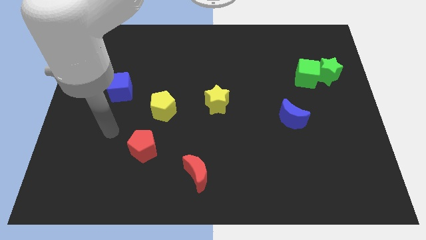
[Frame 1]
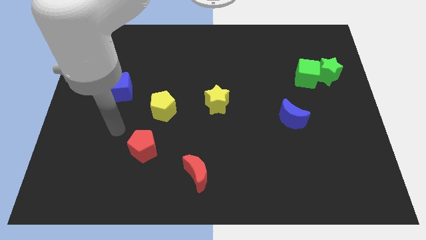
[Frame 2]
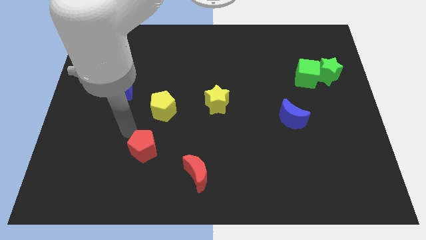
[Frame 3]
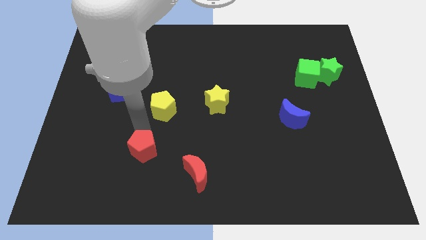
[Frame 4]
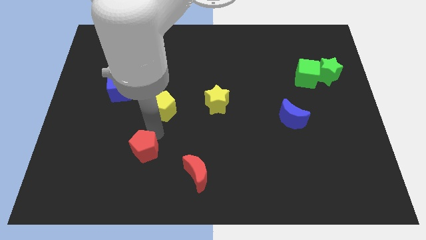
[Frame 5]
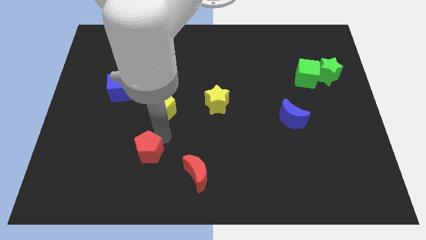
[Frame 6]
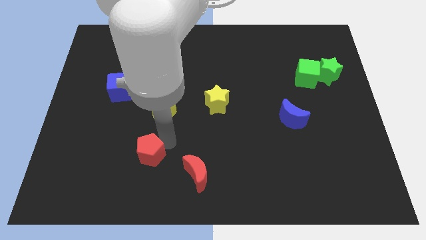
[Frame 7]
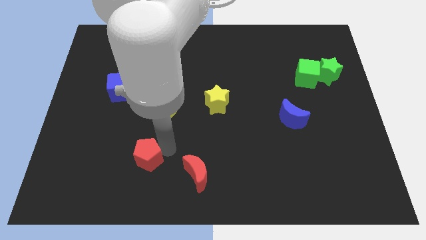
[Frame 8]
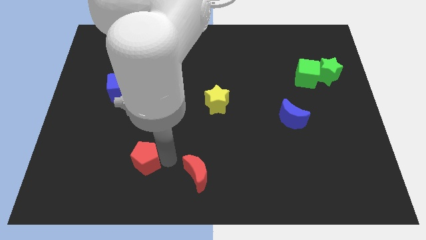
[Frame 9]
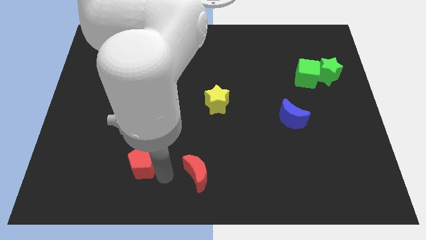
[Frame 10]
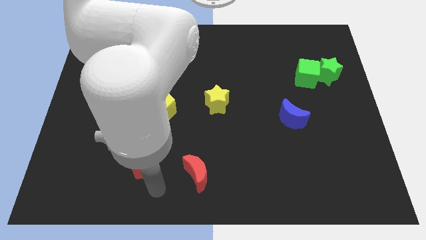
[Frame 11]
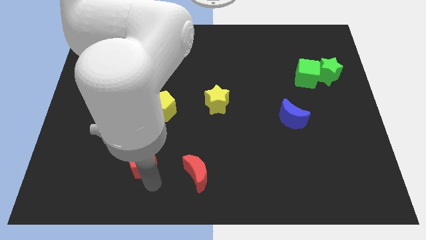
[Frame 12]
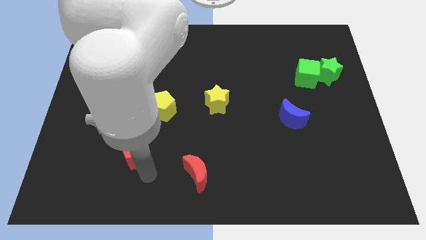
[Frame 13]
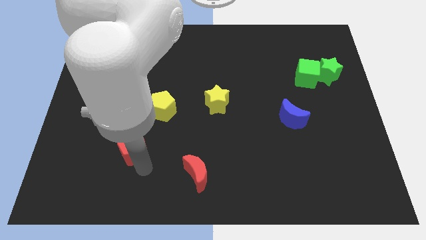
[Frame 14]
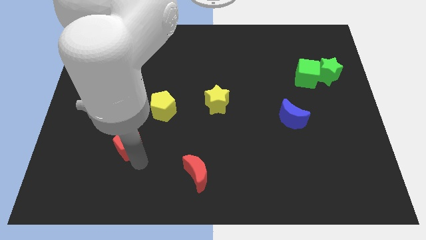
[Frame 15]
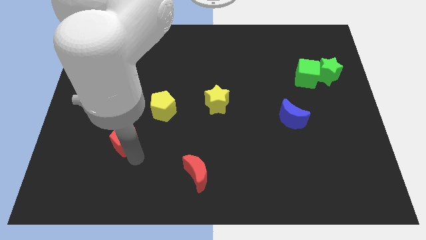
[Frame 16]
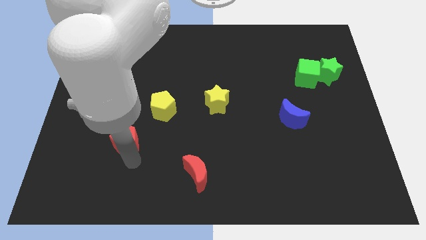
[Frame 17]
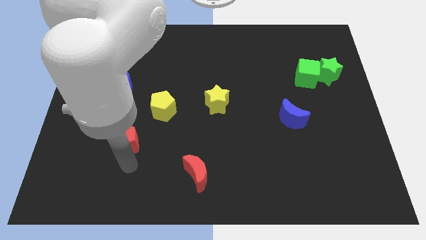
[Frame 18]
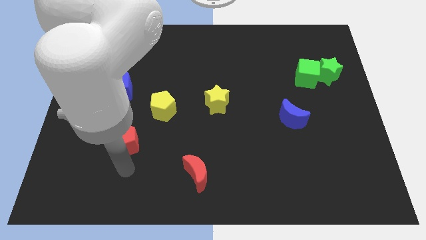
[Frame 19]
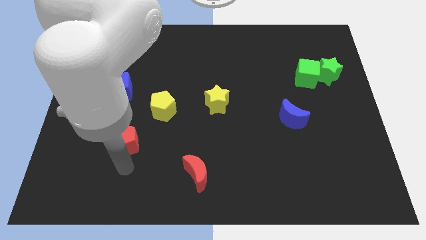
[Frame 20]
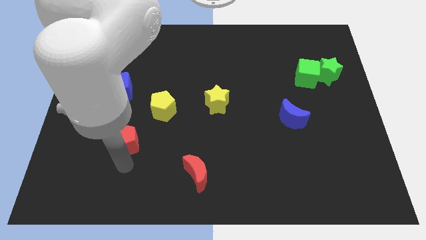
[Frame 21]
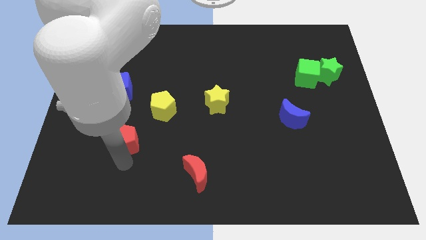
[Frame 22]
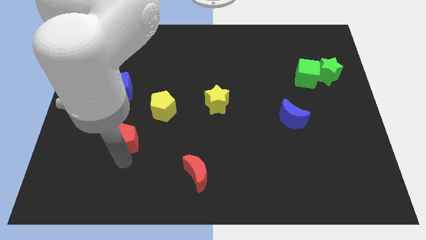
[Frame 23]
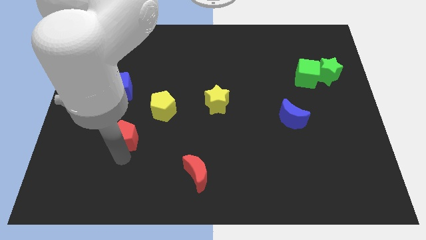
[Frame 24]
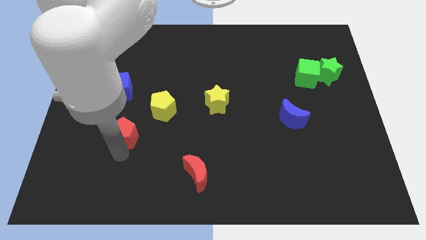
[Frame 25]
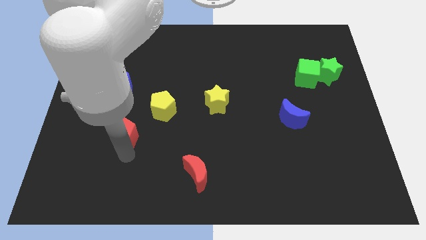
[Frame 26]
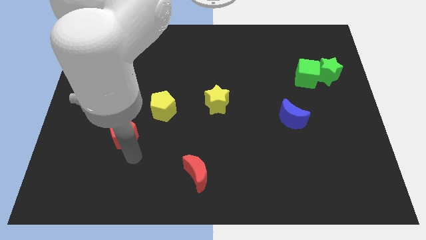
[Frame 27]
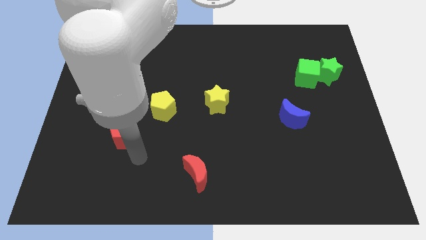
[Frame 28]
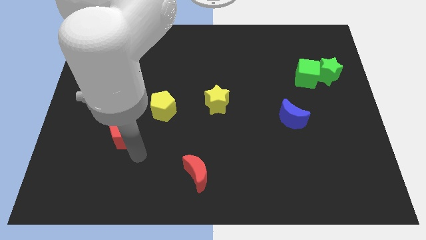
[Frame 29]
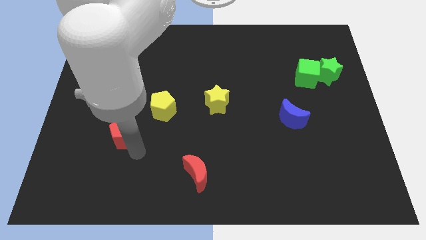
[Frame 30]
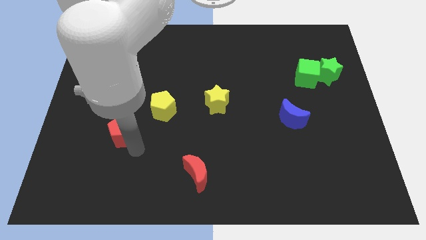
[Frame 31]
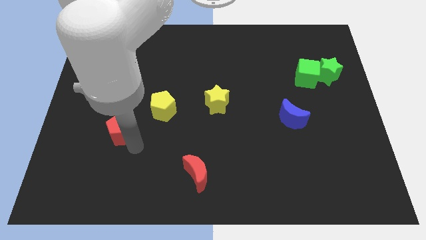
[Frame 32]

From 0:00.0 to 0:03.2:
slightly slide the red pentagon up and then left

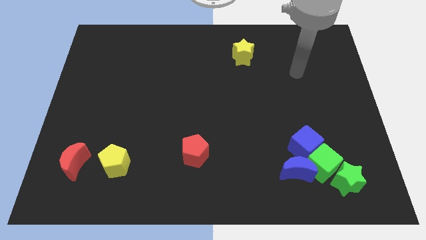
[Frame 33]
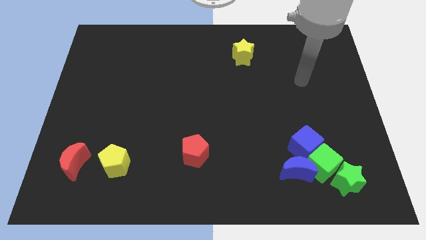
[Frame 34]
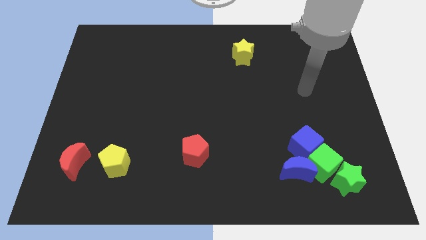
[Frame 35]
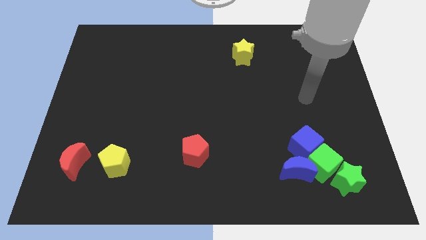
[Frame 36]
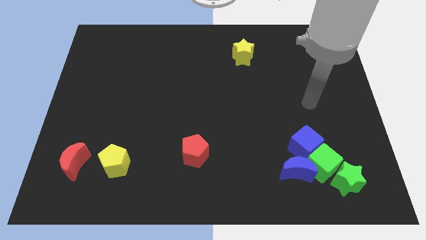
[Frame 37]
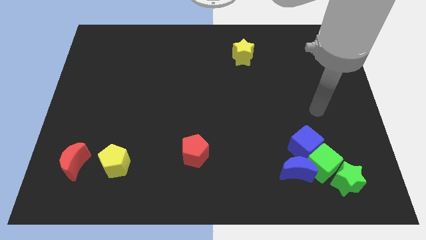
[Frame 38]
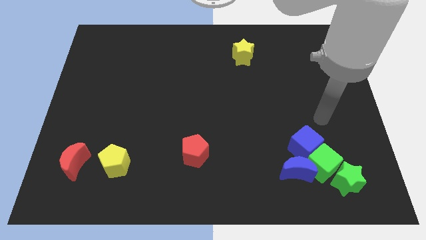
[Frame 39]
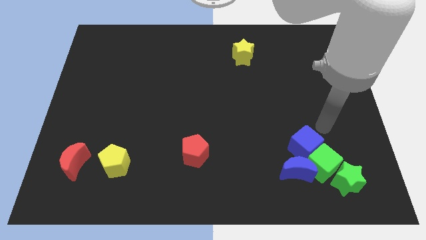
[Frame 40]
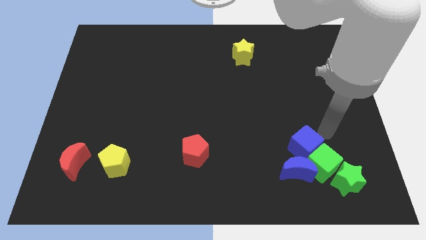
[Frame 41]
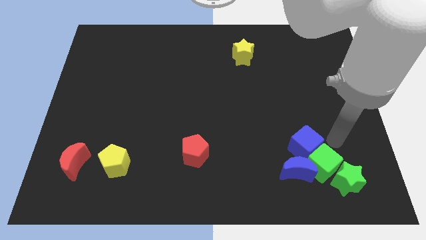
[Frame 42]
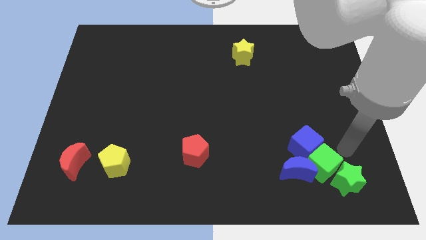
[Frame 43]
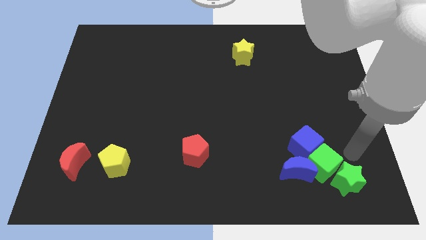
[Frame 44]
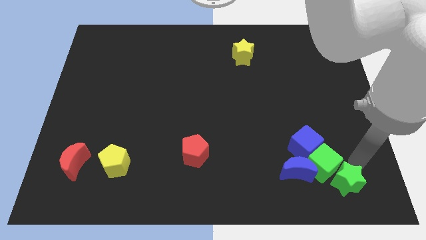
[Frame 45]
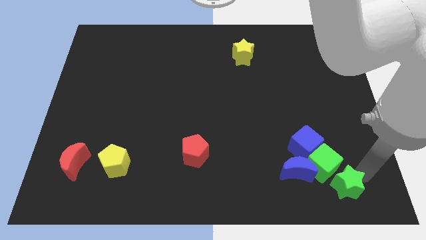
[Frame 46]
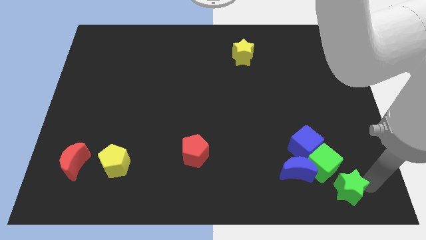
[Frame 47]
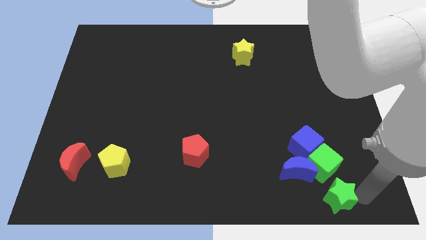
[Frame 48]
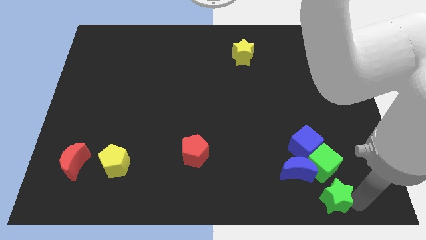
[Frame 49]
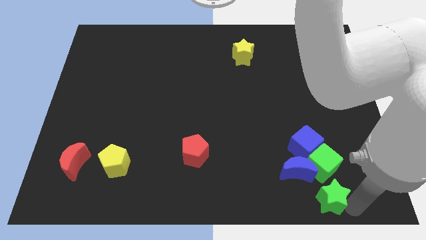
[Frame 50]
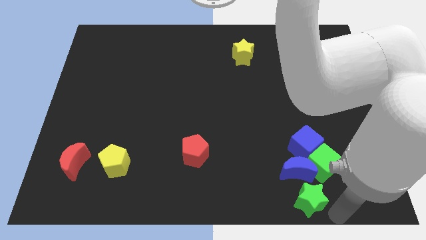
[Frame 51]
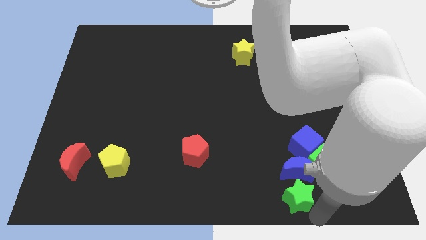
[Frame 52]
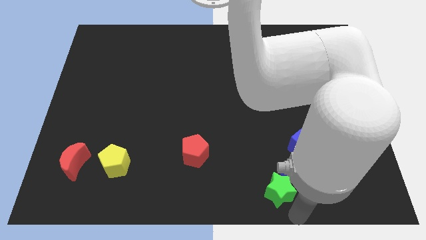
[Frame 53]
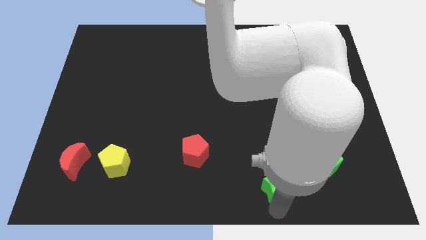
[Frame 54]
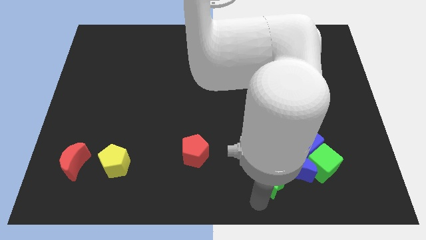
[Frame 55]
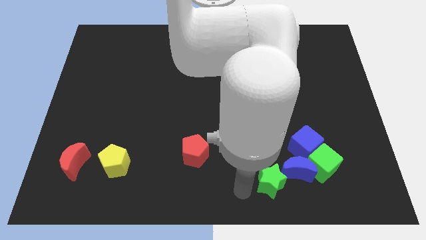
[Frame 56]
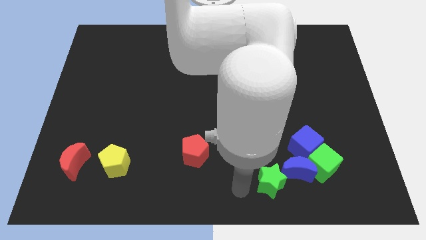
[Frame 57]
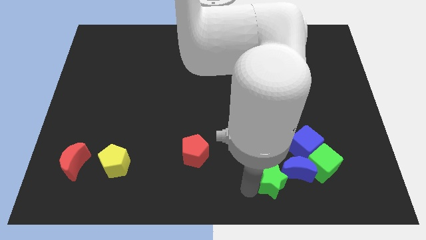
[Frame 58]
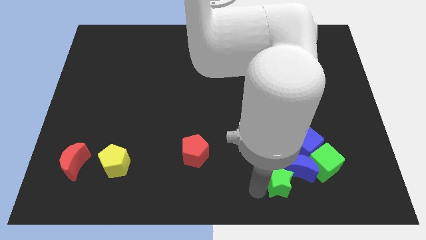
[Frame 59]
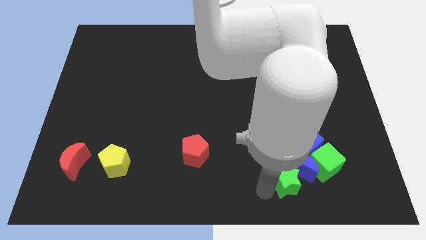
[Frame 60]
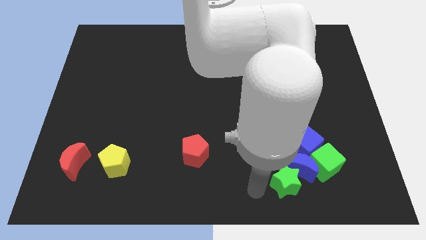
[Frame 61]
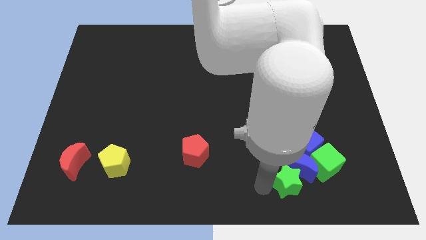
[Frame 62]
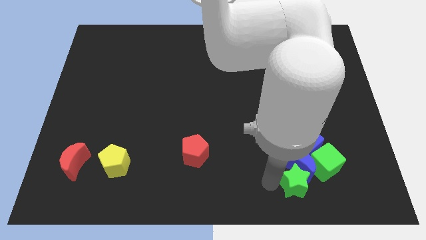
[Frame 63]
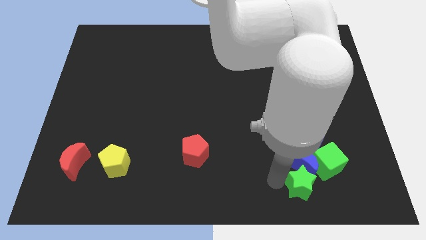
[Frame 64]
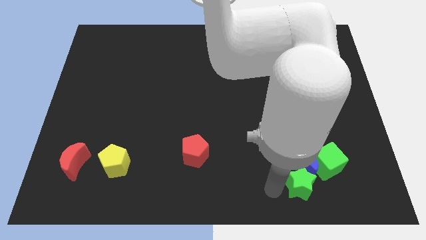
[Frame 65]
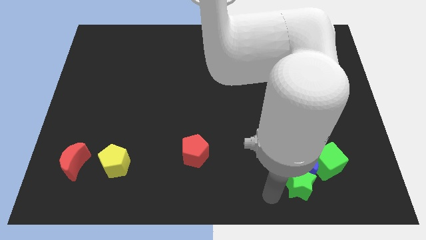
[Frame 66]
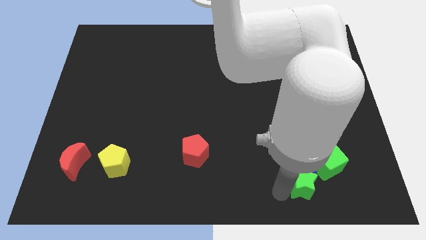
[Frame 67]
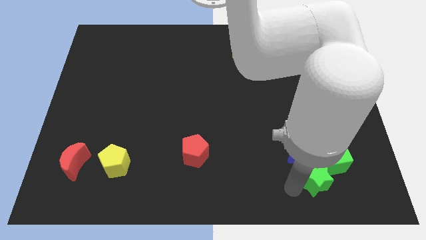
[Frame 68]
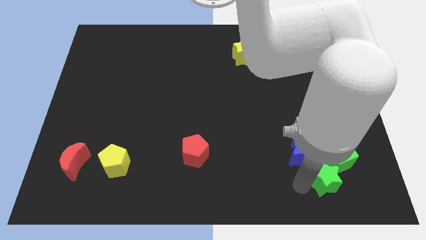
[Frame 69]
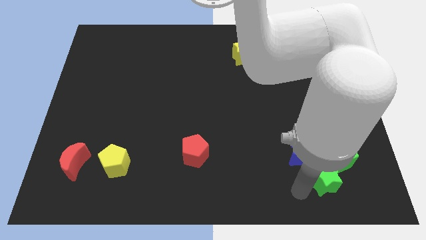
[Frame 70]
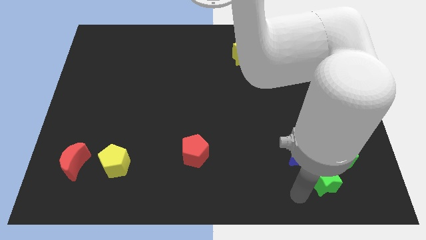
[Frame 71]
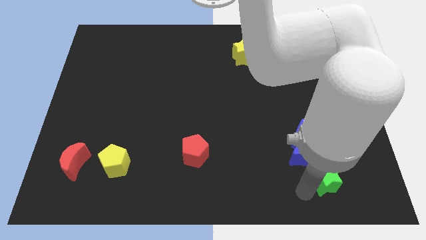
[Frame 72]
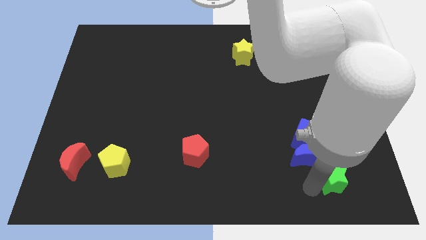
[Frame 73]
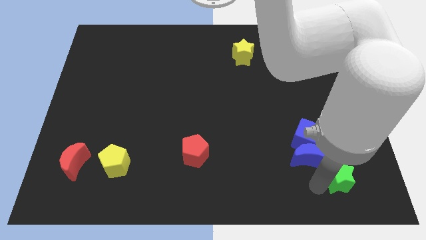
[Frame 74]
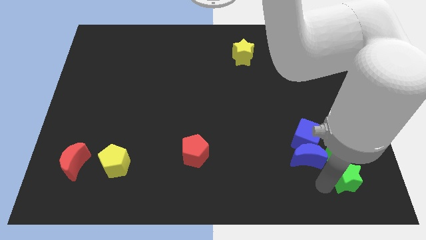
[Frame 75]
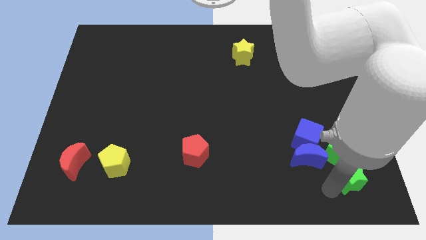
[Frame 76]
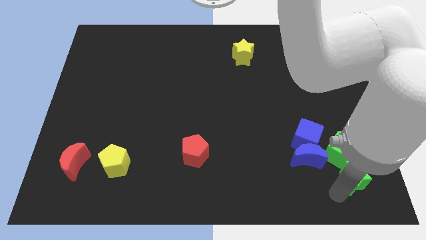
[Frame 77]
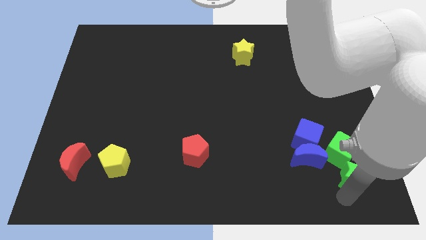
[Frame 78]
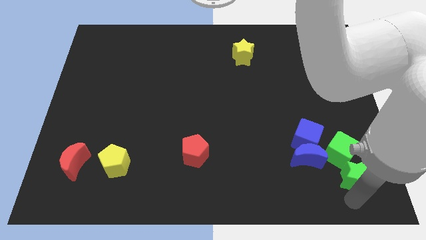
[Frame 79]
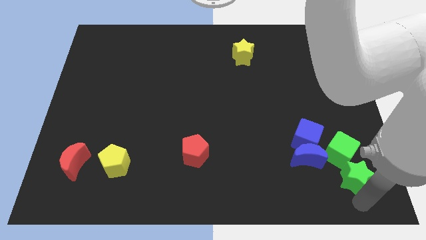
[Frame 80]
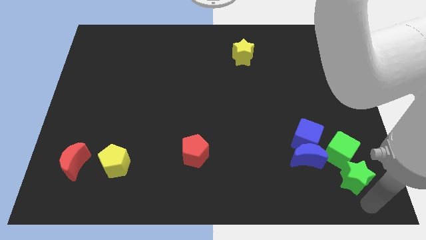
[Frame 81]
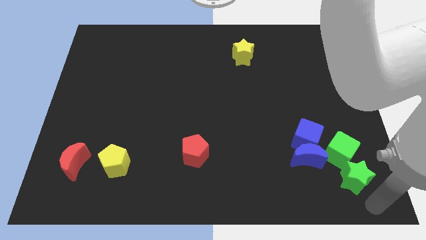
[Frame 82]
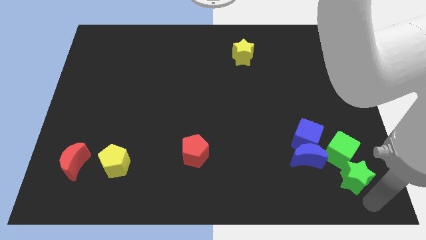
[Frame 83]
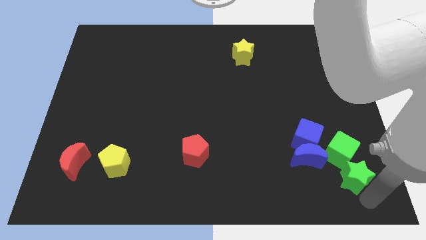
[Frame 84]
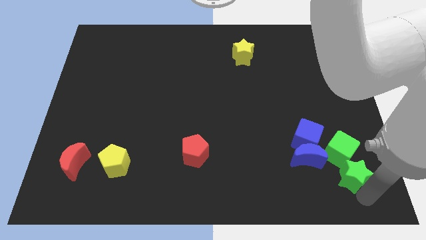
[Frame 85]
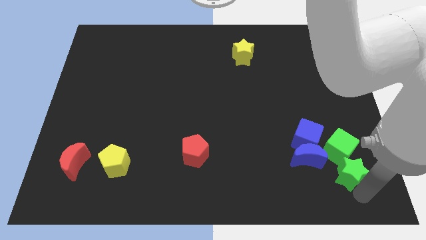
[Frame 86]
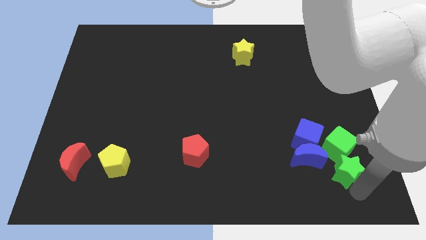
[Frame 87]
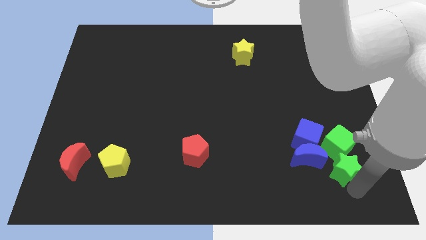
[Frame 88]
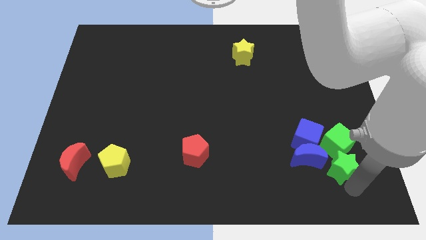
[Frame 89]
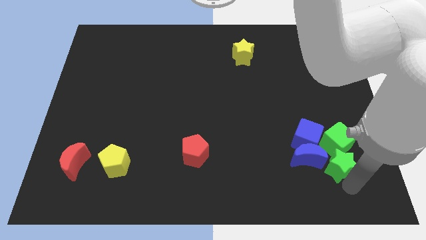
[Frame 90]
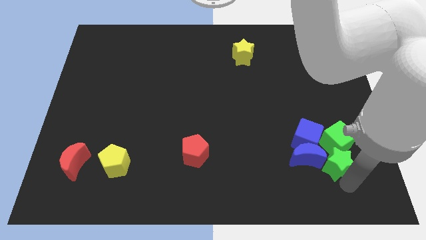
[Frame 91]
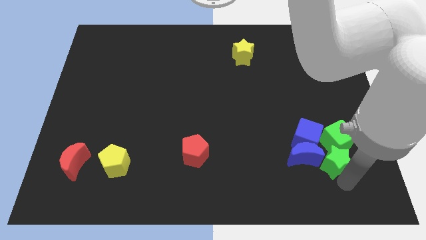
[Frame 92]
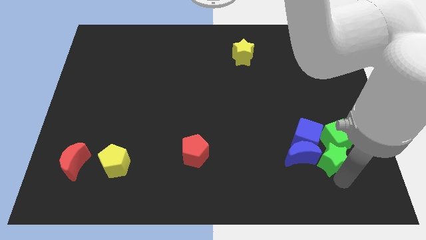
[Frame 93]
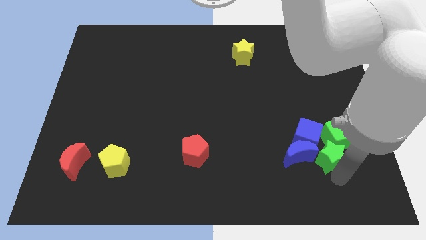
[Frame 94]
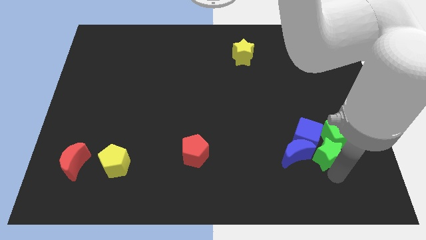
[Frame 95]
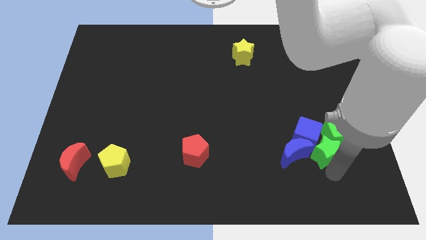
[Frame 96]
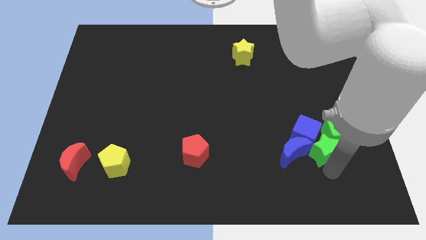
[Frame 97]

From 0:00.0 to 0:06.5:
slightly push the green star up and left
